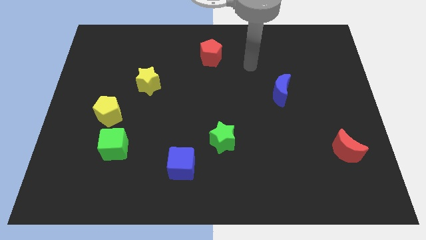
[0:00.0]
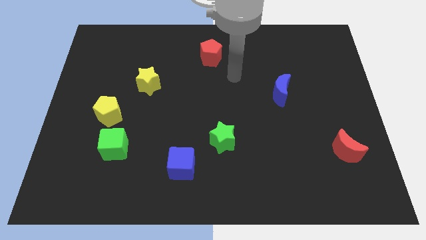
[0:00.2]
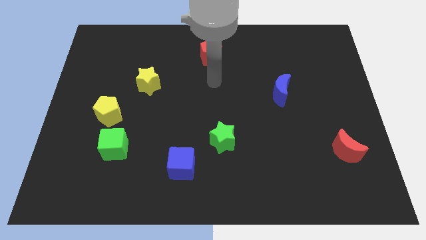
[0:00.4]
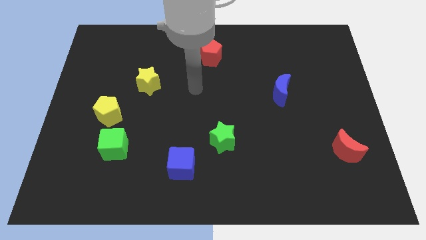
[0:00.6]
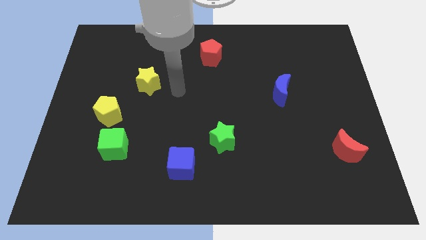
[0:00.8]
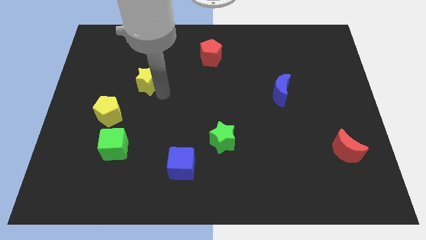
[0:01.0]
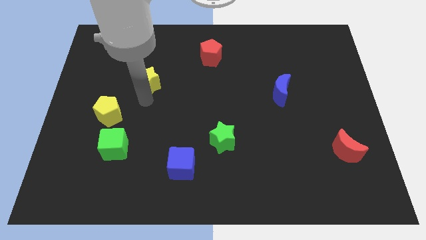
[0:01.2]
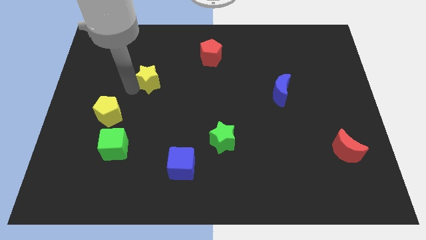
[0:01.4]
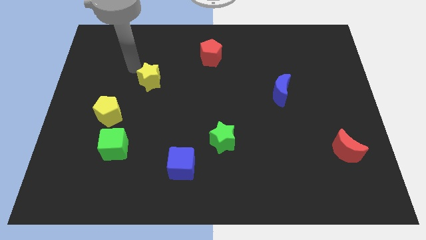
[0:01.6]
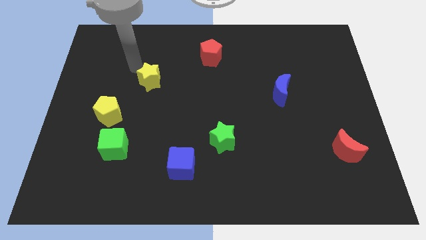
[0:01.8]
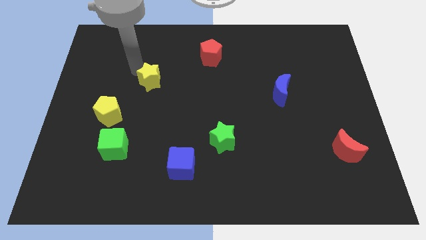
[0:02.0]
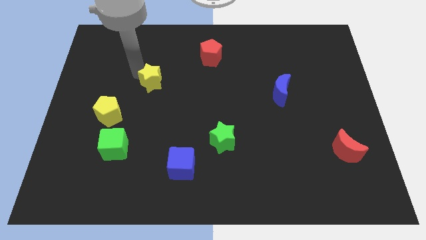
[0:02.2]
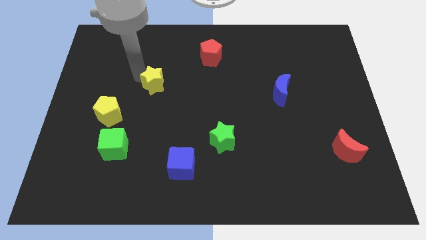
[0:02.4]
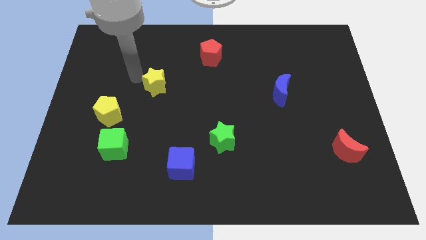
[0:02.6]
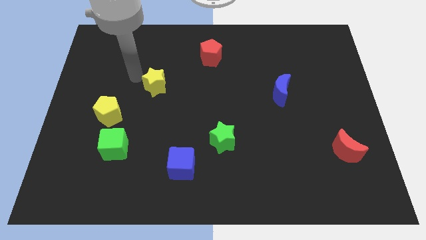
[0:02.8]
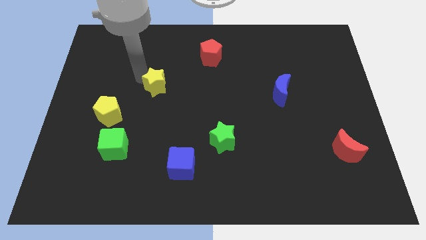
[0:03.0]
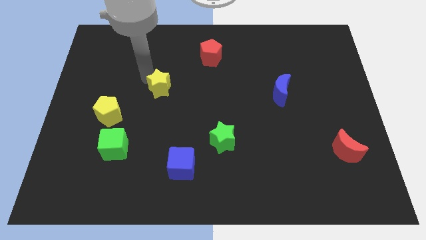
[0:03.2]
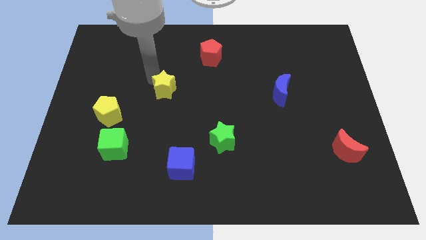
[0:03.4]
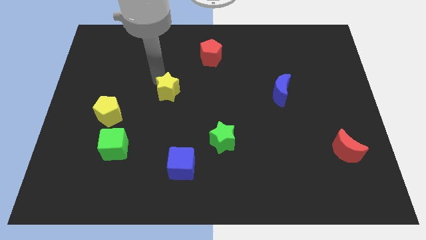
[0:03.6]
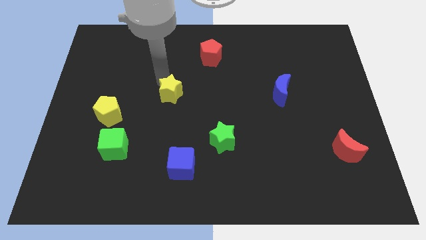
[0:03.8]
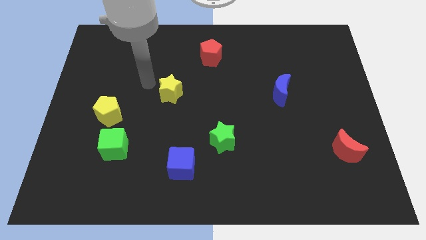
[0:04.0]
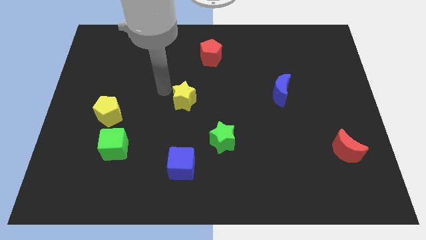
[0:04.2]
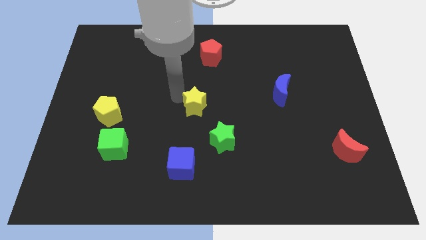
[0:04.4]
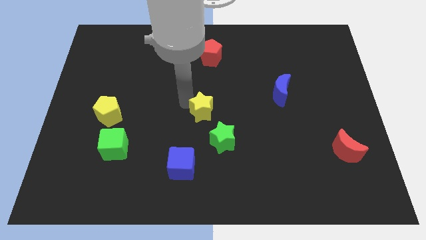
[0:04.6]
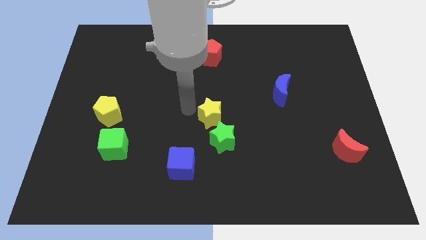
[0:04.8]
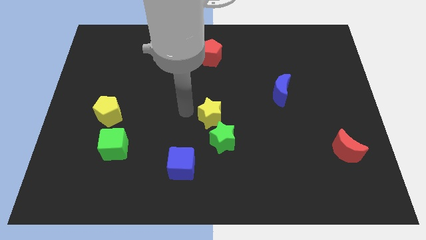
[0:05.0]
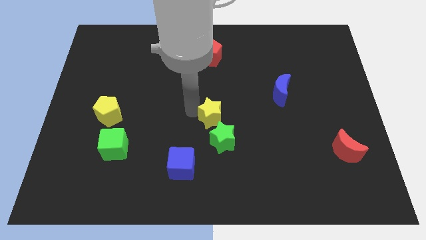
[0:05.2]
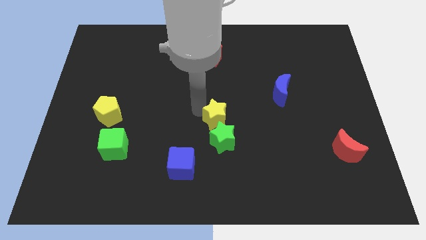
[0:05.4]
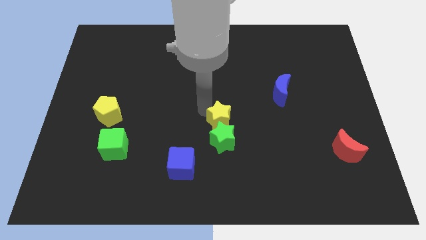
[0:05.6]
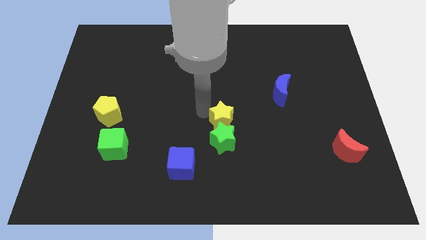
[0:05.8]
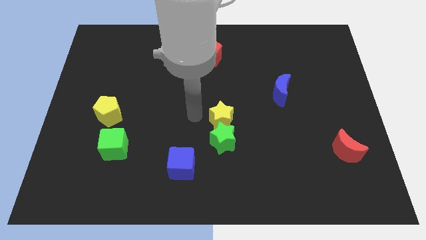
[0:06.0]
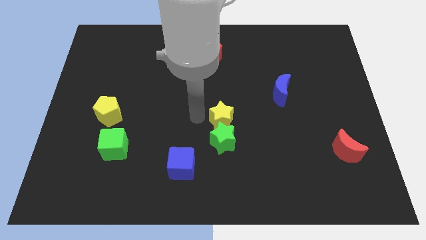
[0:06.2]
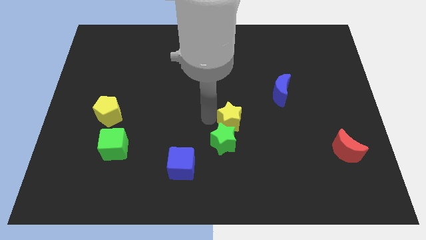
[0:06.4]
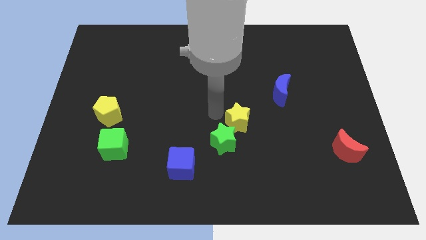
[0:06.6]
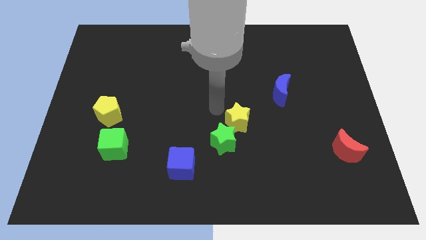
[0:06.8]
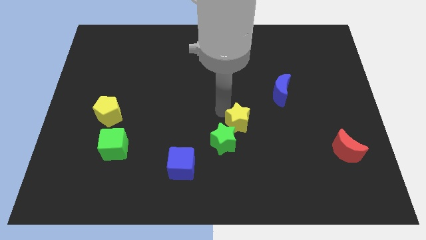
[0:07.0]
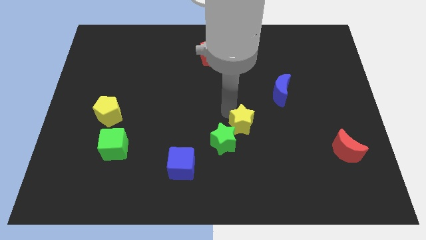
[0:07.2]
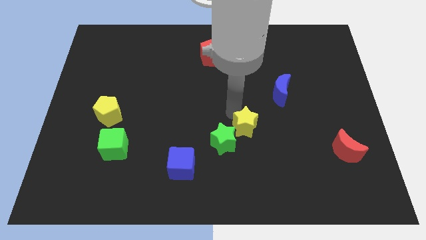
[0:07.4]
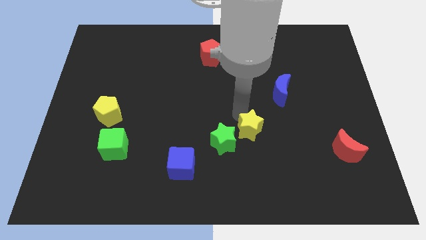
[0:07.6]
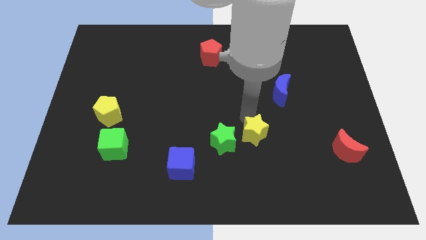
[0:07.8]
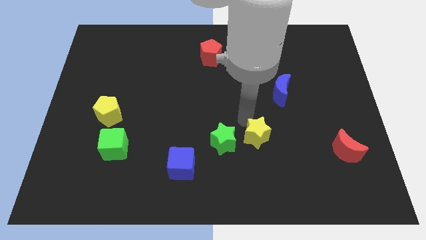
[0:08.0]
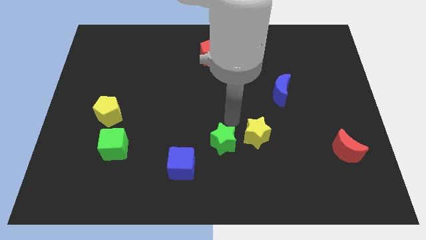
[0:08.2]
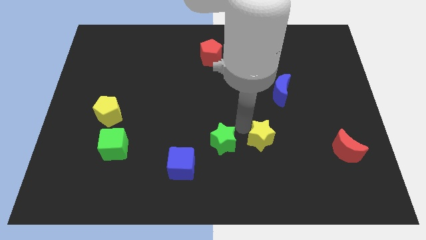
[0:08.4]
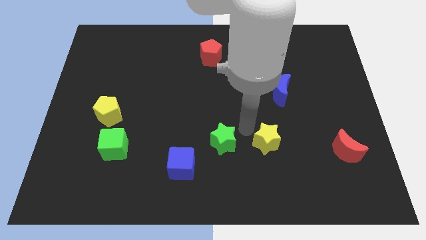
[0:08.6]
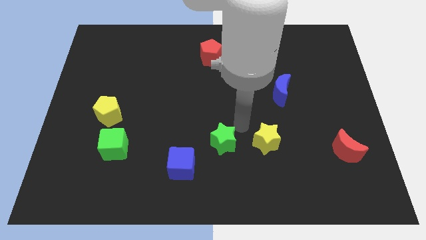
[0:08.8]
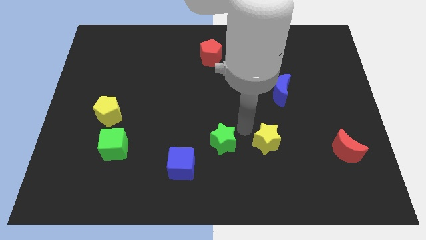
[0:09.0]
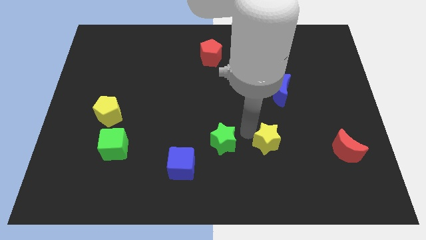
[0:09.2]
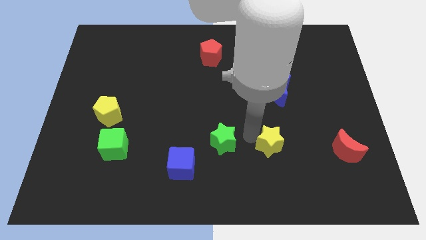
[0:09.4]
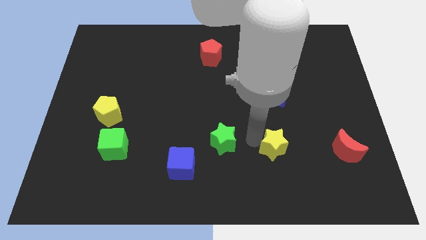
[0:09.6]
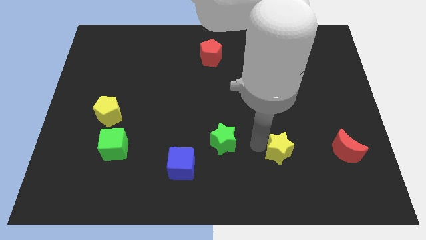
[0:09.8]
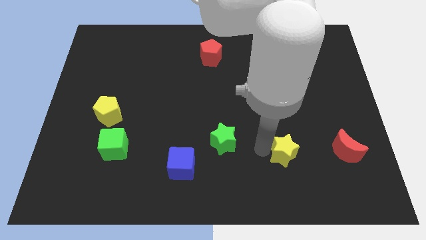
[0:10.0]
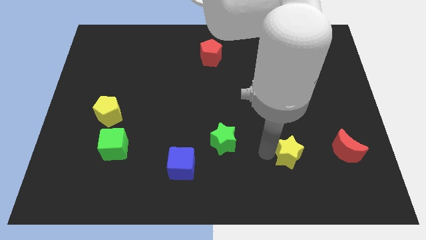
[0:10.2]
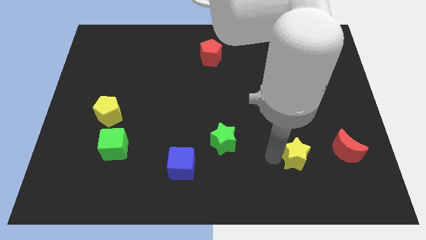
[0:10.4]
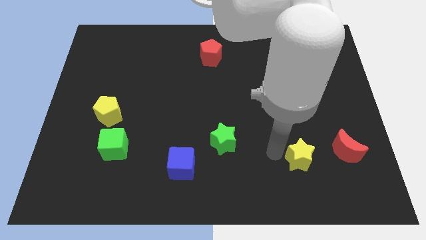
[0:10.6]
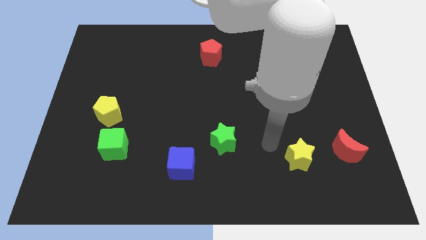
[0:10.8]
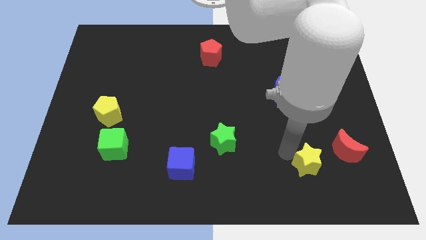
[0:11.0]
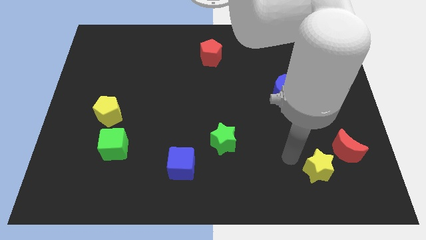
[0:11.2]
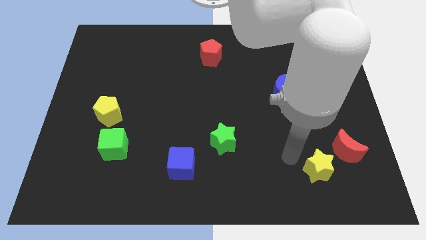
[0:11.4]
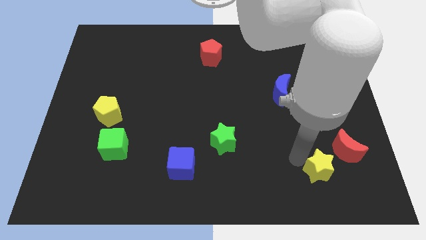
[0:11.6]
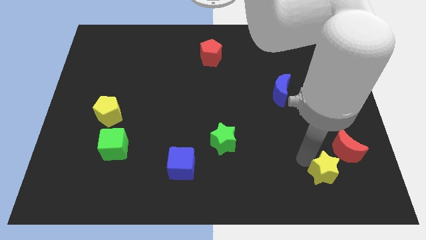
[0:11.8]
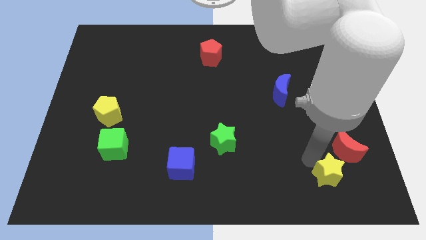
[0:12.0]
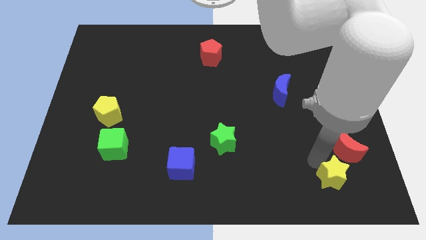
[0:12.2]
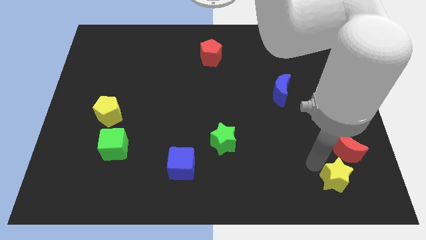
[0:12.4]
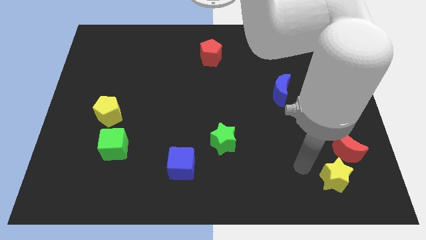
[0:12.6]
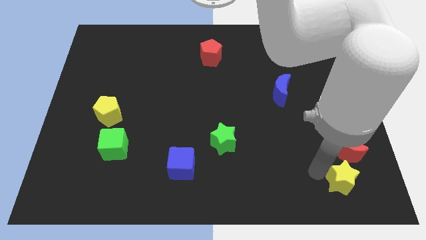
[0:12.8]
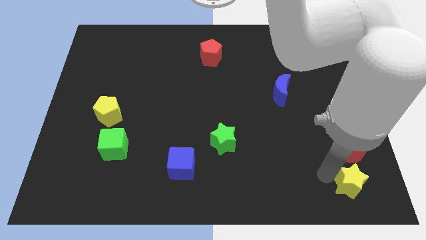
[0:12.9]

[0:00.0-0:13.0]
push the yellow star to the bottom right
